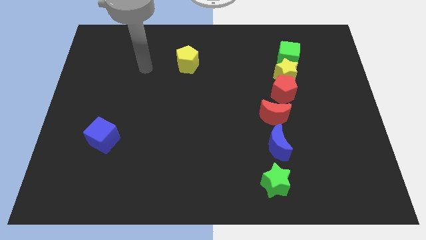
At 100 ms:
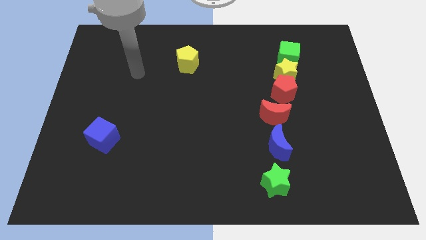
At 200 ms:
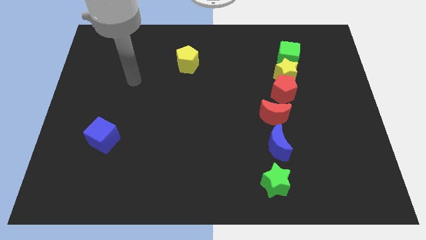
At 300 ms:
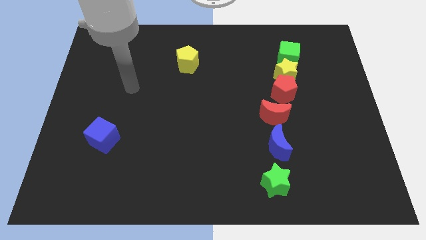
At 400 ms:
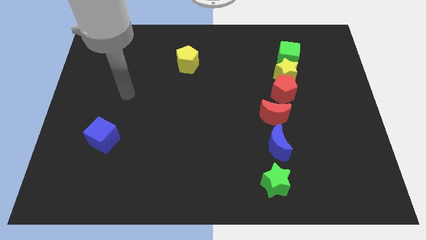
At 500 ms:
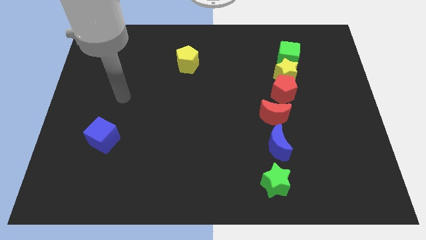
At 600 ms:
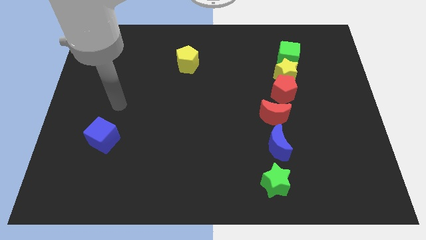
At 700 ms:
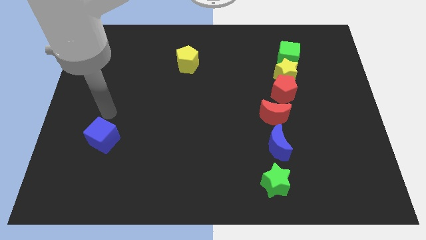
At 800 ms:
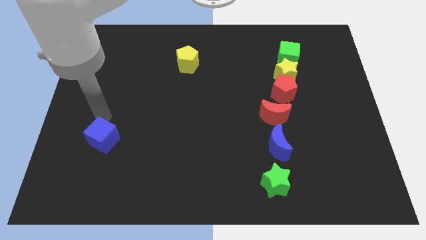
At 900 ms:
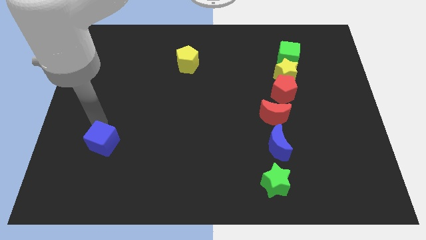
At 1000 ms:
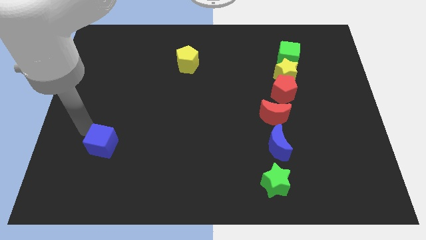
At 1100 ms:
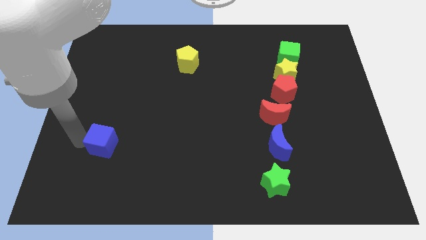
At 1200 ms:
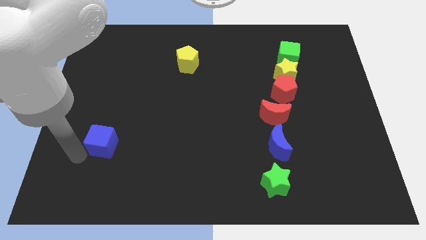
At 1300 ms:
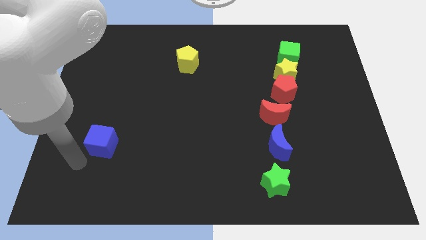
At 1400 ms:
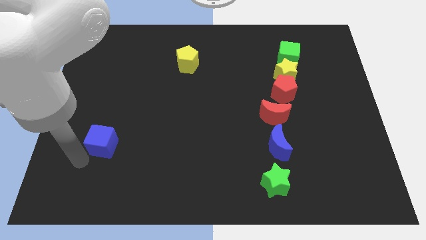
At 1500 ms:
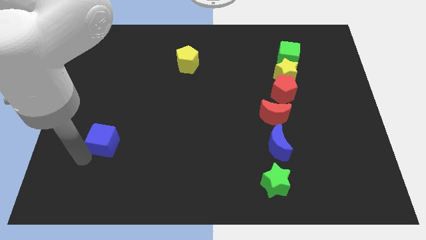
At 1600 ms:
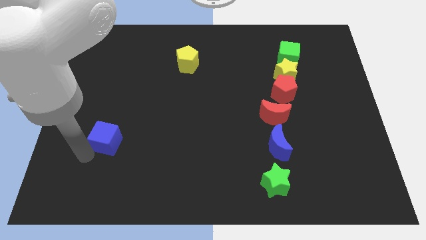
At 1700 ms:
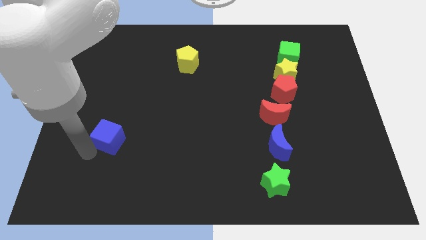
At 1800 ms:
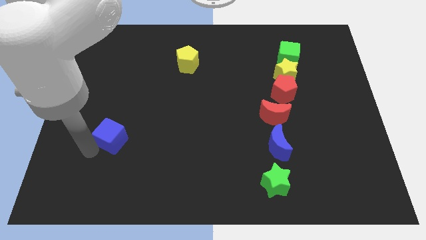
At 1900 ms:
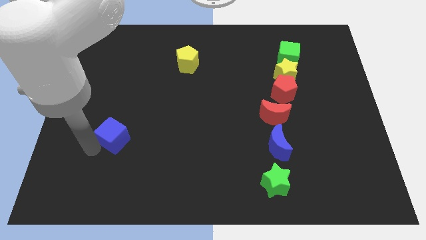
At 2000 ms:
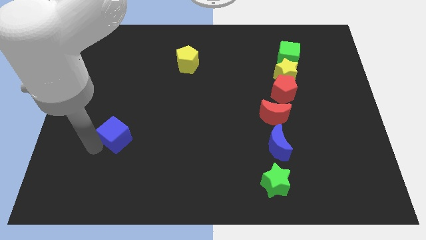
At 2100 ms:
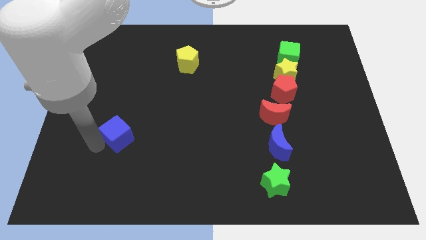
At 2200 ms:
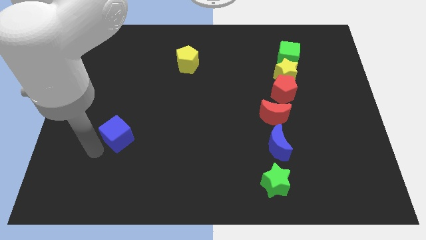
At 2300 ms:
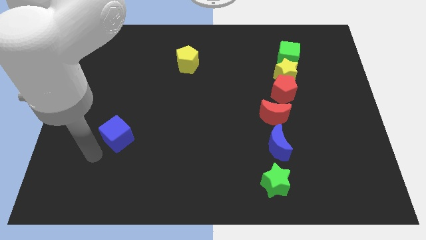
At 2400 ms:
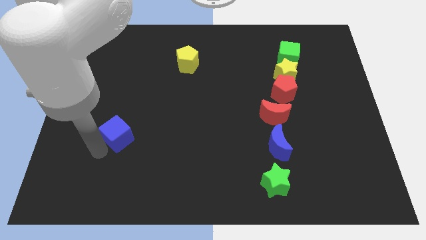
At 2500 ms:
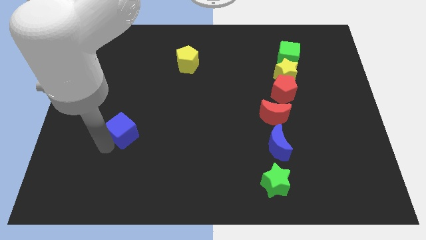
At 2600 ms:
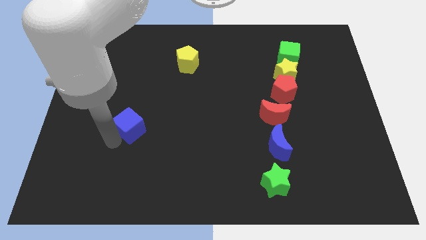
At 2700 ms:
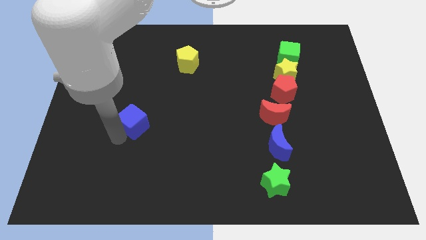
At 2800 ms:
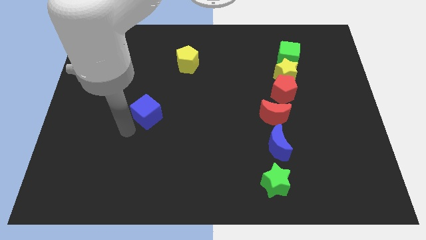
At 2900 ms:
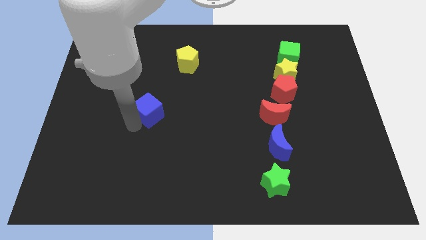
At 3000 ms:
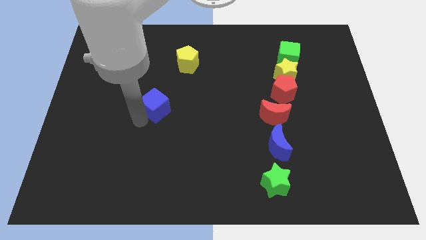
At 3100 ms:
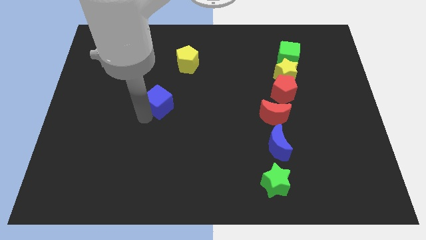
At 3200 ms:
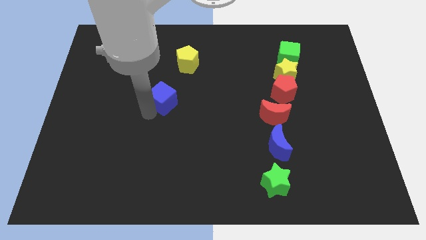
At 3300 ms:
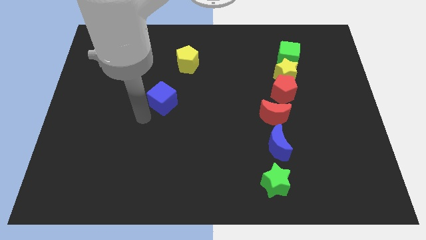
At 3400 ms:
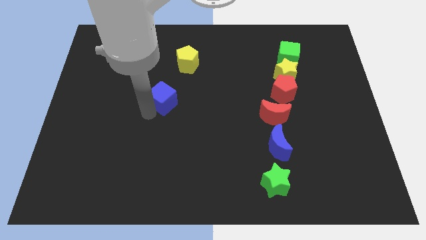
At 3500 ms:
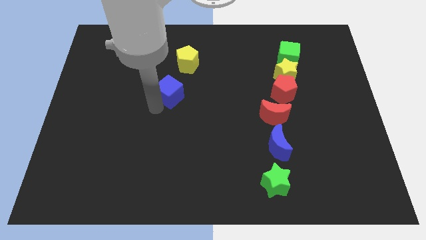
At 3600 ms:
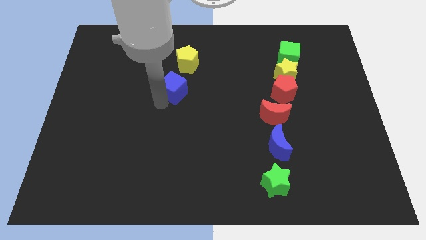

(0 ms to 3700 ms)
move the blue cube up and to the right

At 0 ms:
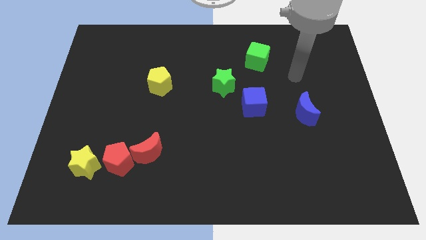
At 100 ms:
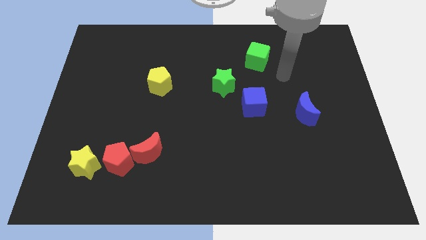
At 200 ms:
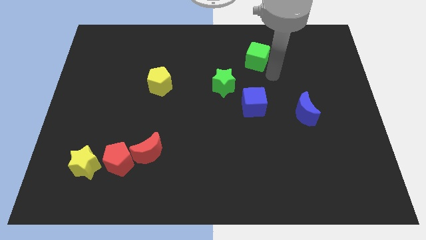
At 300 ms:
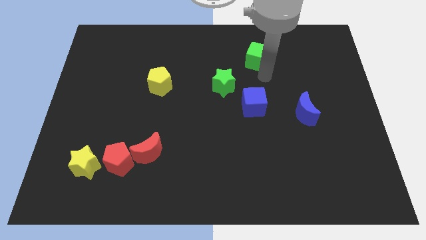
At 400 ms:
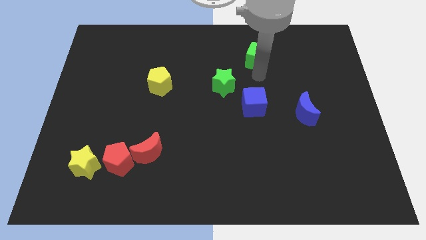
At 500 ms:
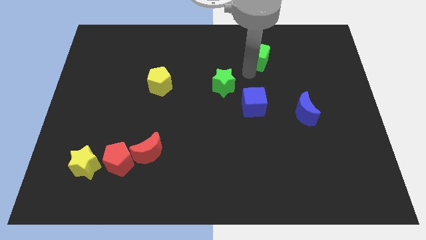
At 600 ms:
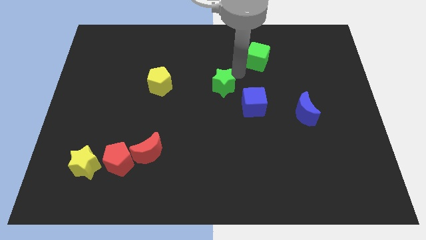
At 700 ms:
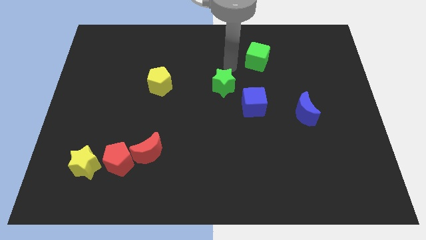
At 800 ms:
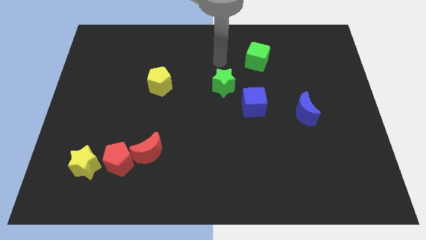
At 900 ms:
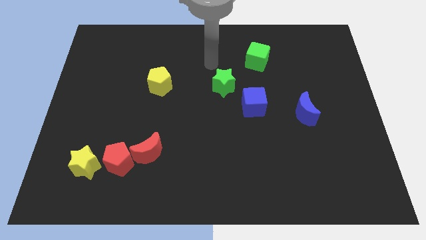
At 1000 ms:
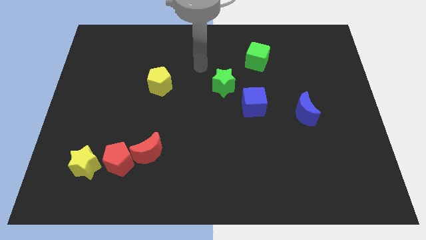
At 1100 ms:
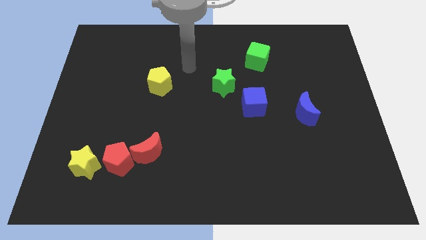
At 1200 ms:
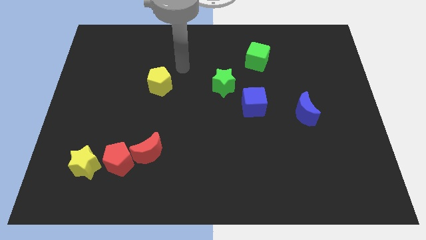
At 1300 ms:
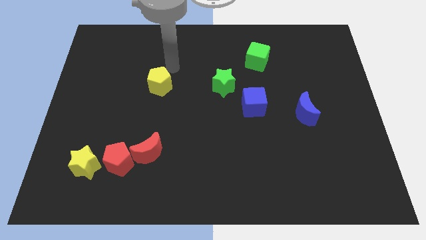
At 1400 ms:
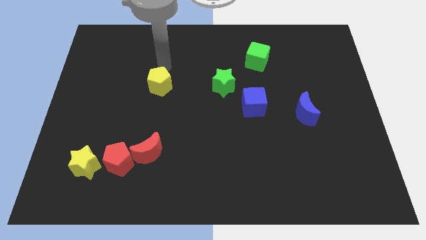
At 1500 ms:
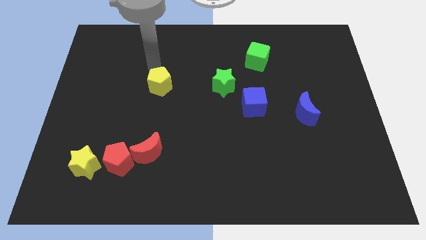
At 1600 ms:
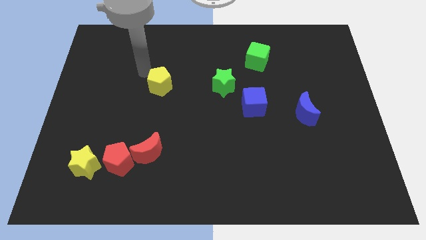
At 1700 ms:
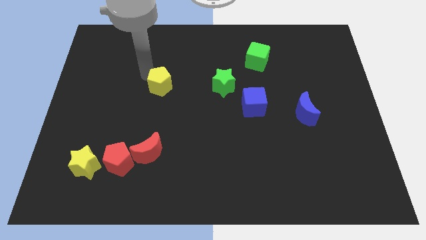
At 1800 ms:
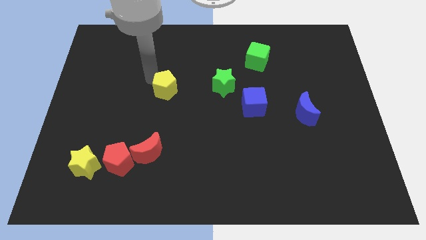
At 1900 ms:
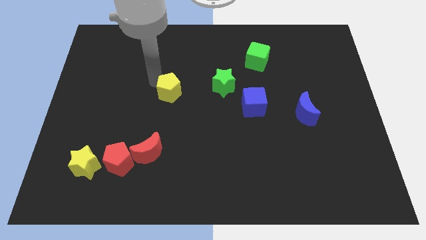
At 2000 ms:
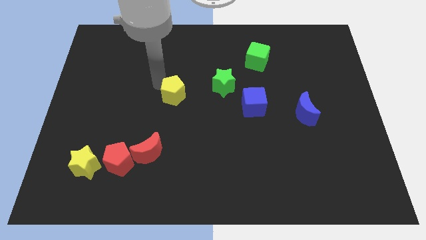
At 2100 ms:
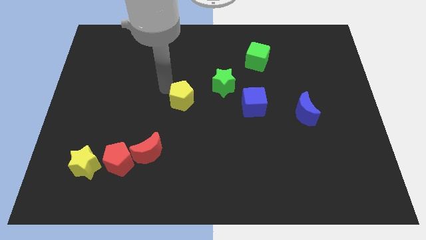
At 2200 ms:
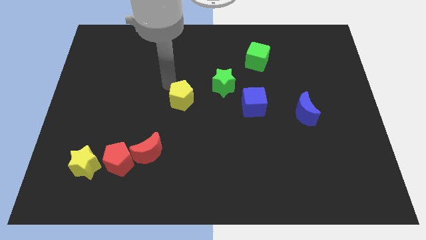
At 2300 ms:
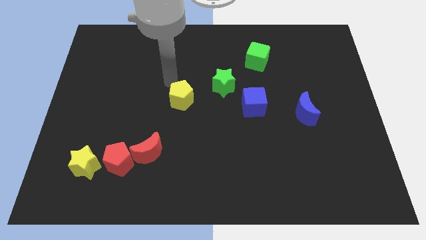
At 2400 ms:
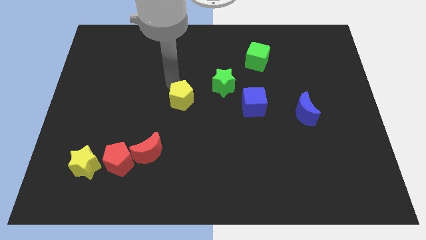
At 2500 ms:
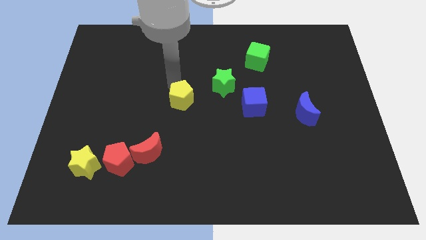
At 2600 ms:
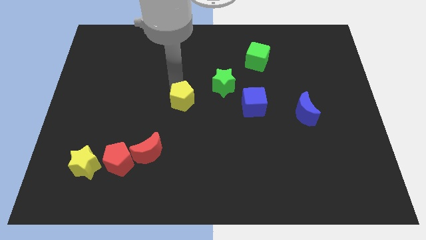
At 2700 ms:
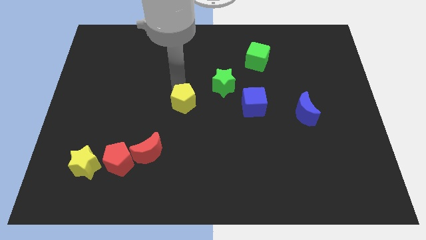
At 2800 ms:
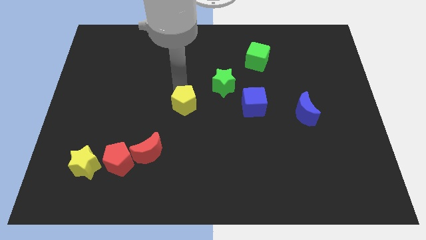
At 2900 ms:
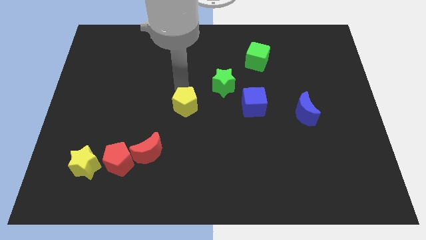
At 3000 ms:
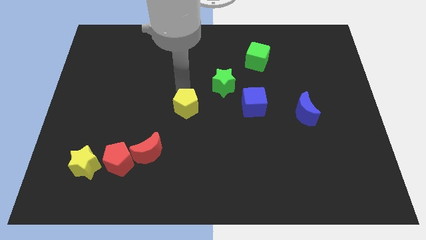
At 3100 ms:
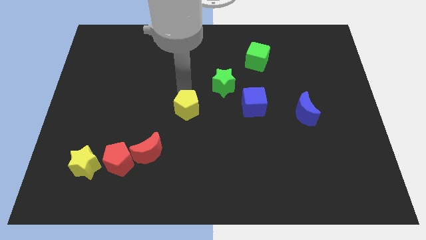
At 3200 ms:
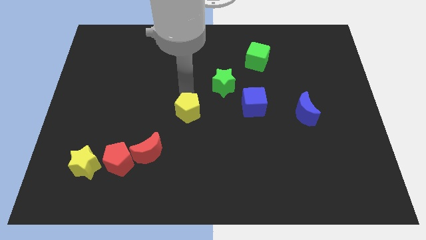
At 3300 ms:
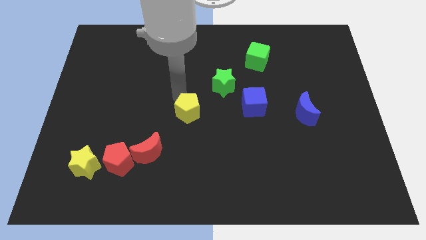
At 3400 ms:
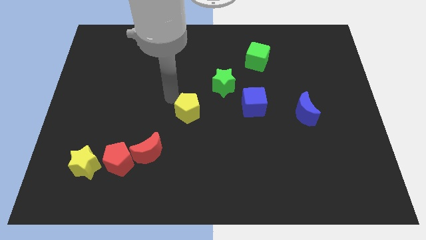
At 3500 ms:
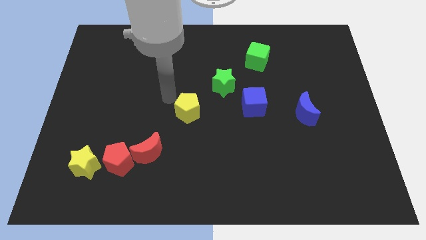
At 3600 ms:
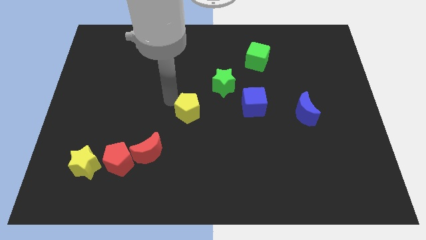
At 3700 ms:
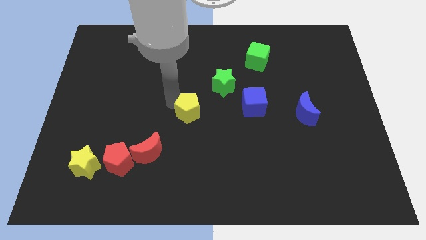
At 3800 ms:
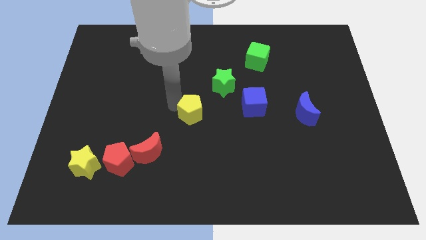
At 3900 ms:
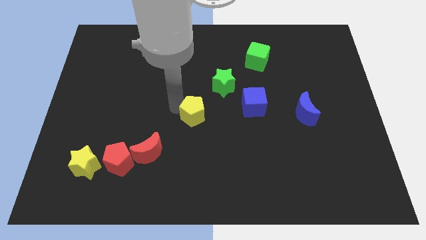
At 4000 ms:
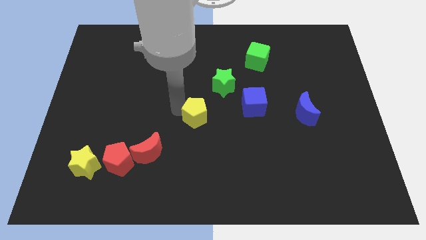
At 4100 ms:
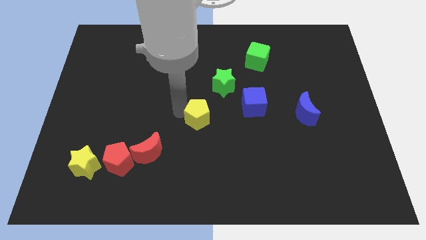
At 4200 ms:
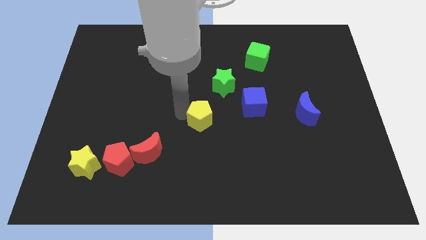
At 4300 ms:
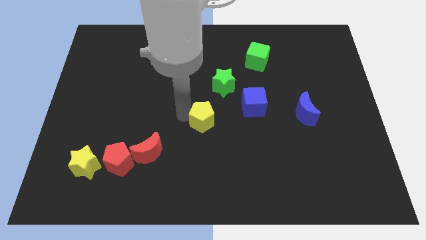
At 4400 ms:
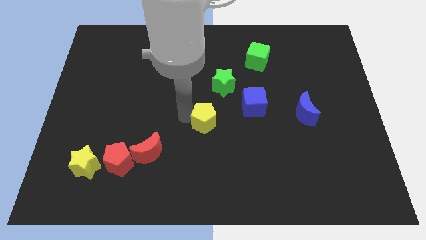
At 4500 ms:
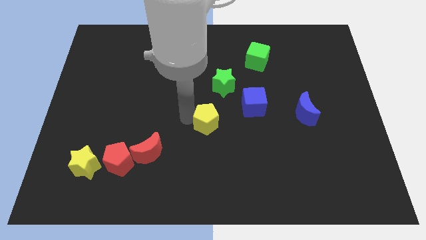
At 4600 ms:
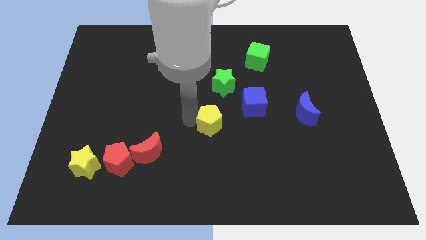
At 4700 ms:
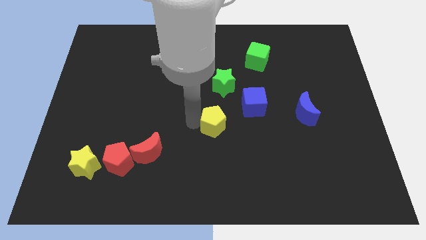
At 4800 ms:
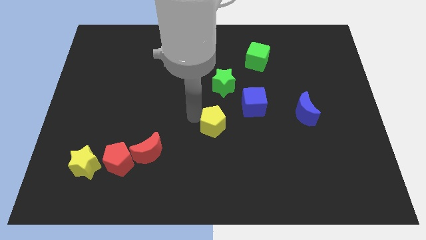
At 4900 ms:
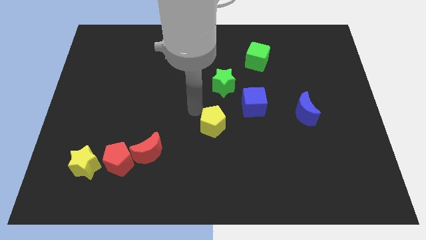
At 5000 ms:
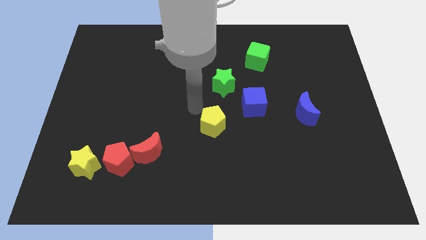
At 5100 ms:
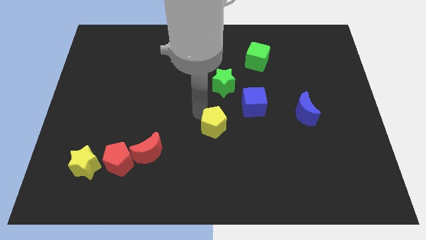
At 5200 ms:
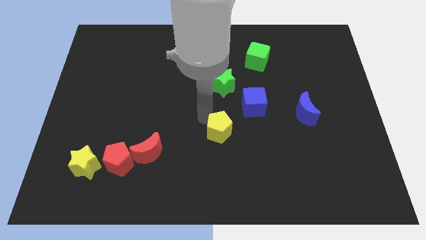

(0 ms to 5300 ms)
move the yellow pentagon diagonally downwards and to the right
